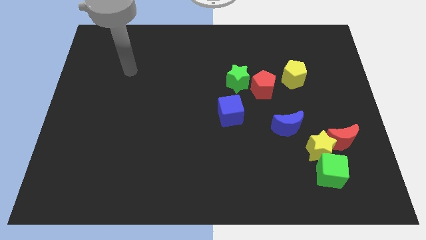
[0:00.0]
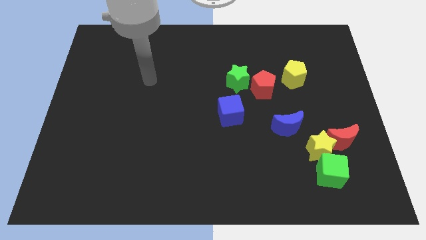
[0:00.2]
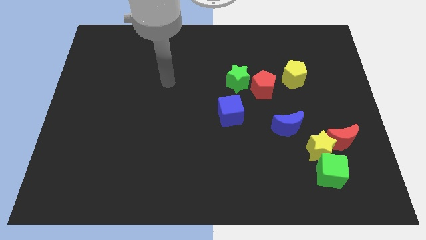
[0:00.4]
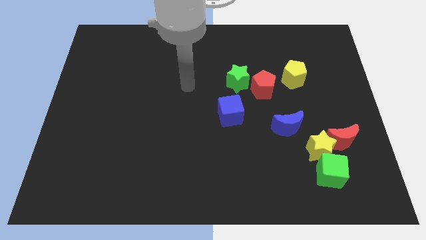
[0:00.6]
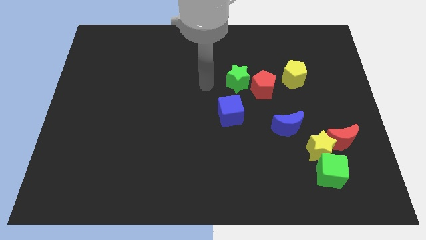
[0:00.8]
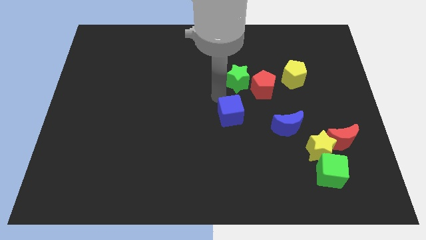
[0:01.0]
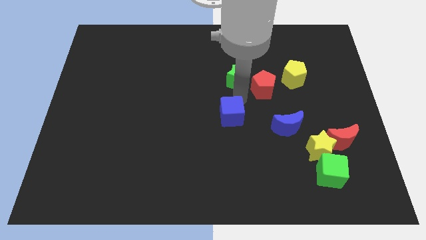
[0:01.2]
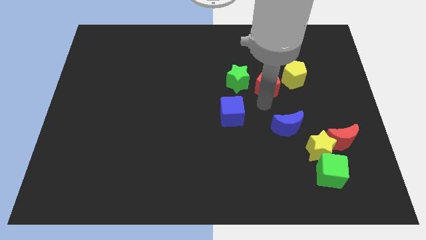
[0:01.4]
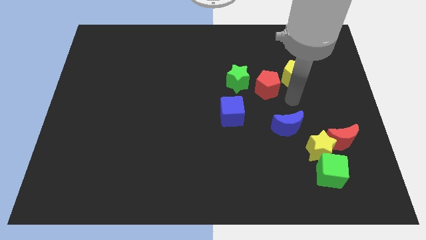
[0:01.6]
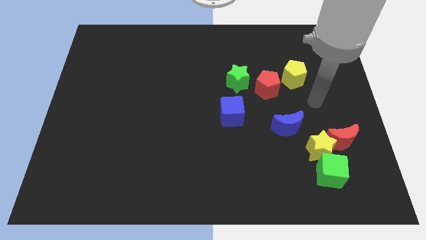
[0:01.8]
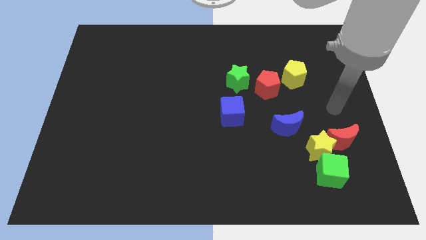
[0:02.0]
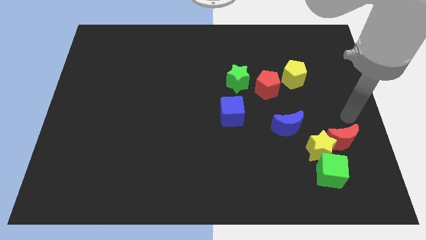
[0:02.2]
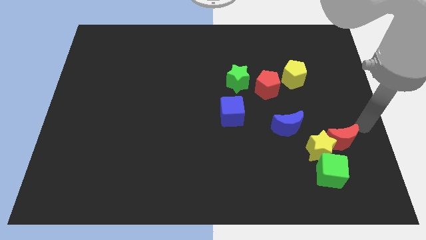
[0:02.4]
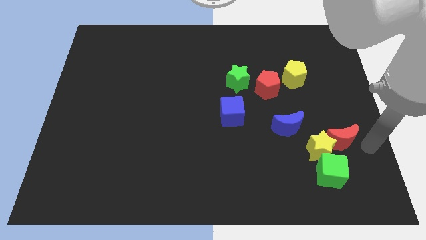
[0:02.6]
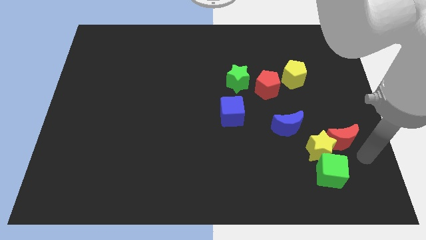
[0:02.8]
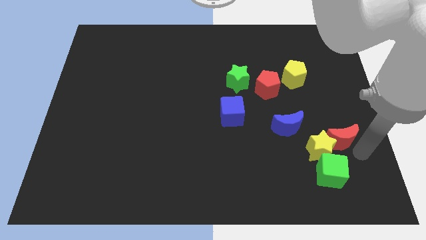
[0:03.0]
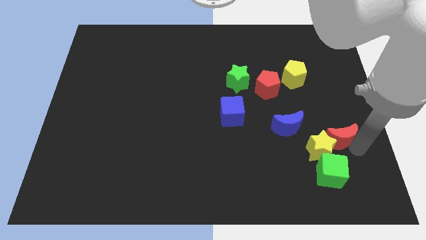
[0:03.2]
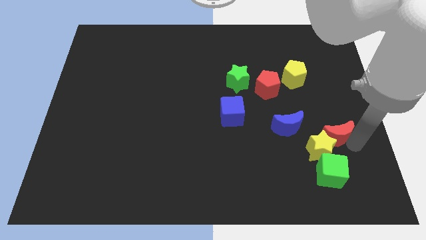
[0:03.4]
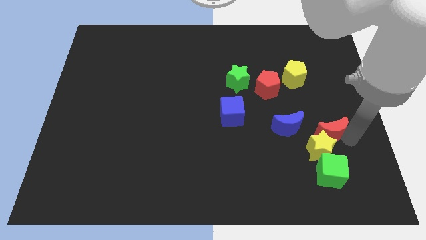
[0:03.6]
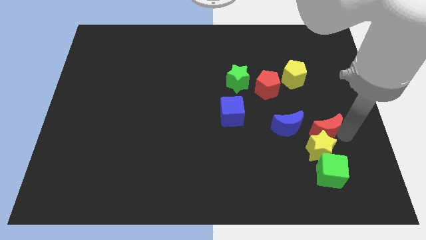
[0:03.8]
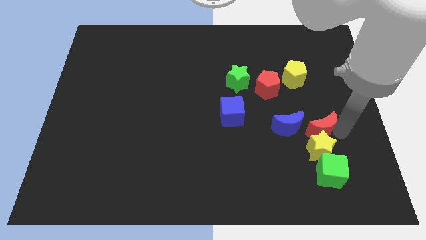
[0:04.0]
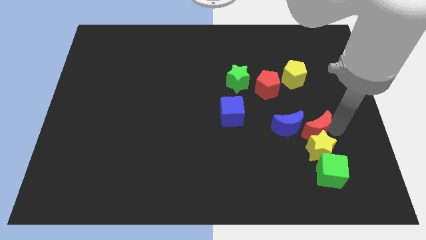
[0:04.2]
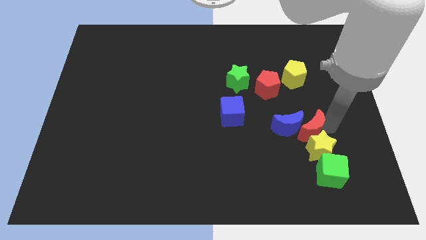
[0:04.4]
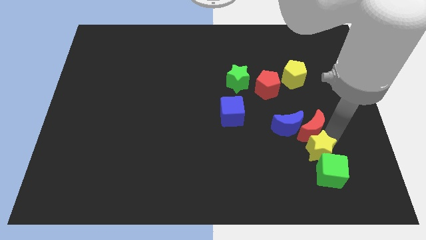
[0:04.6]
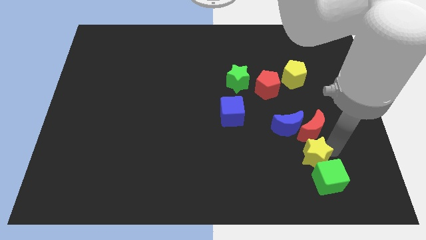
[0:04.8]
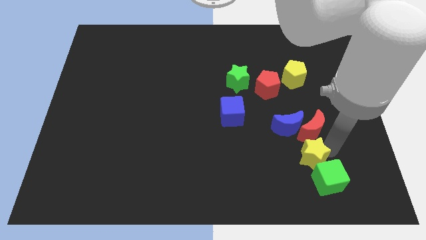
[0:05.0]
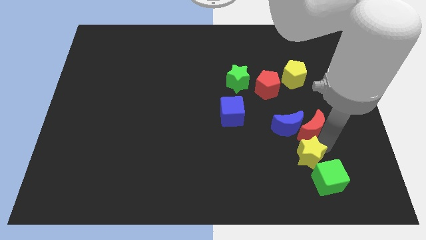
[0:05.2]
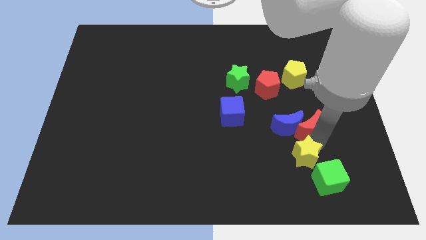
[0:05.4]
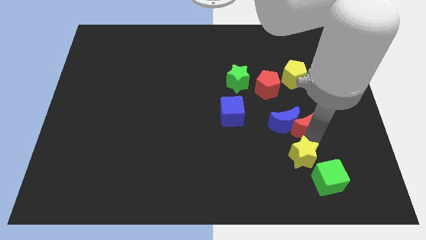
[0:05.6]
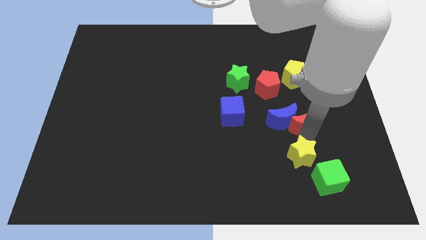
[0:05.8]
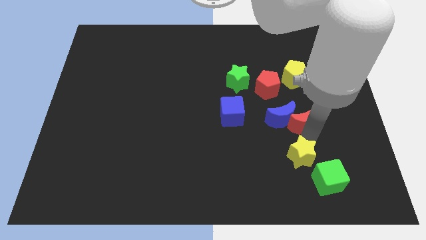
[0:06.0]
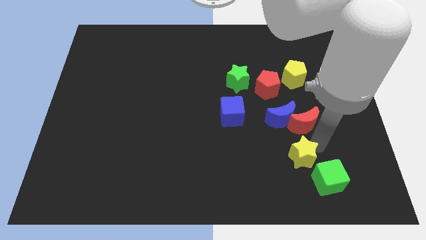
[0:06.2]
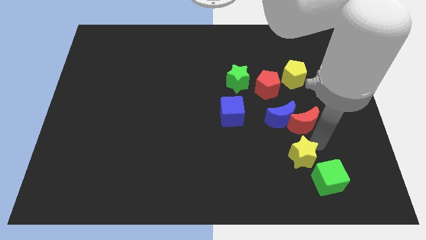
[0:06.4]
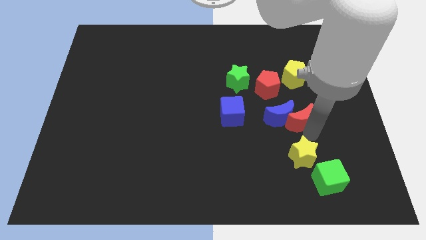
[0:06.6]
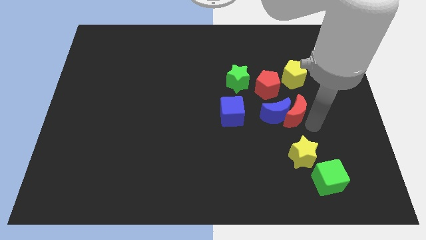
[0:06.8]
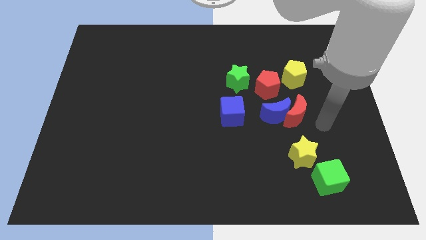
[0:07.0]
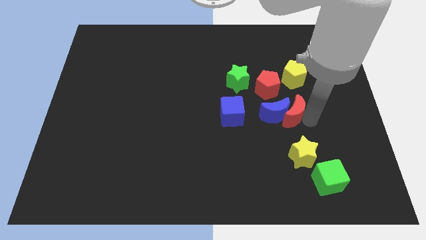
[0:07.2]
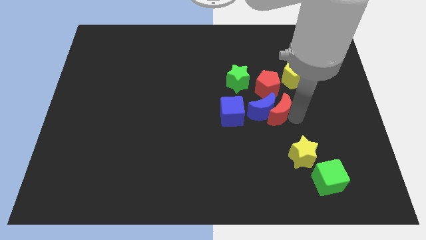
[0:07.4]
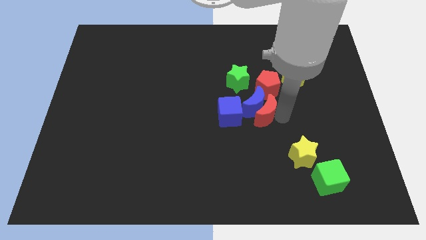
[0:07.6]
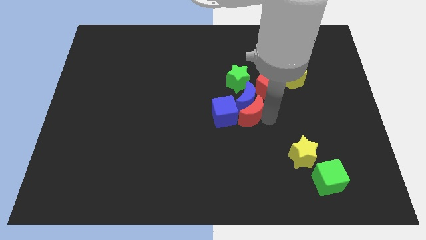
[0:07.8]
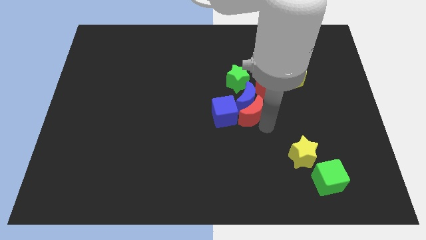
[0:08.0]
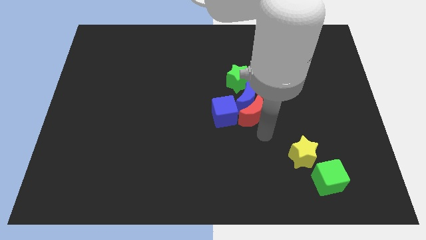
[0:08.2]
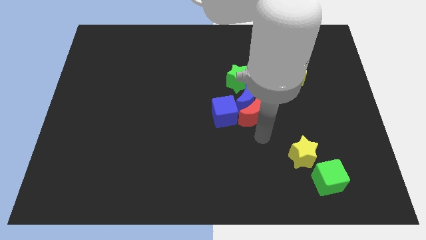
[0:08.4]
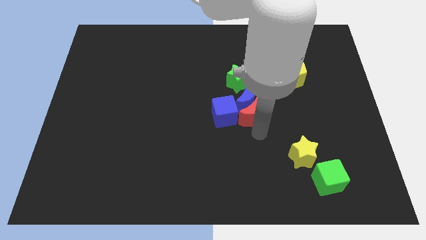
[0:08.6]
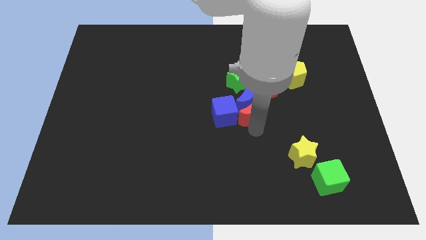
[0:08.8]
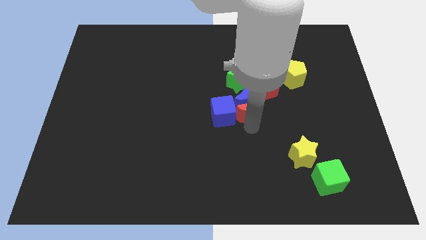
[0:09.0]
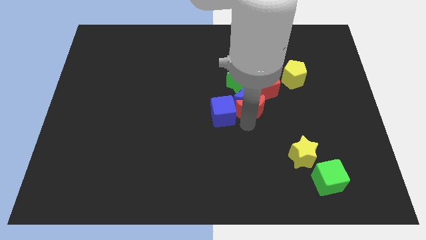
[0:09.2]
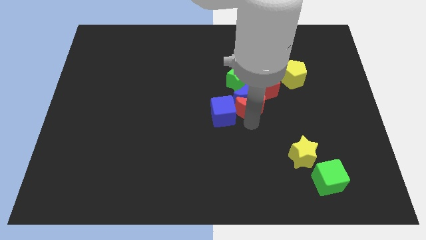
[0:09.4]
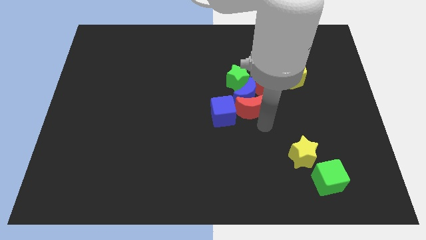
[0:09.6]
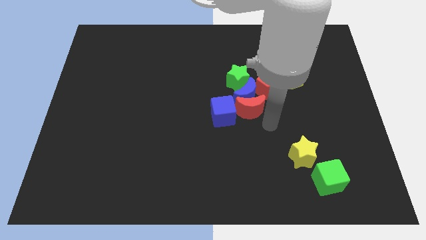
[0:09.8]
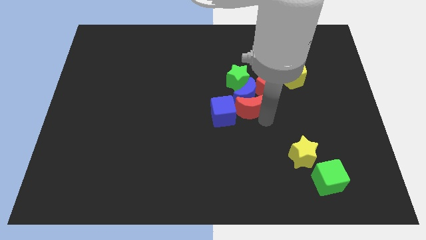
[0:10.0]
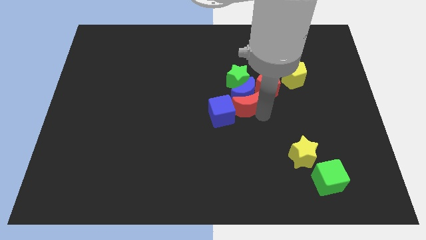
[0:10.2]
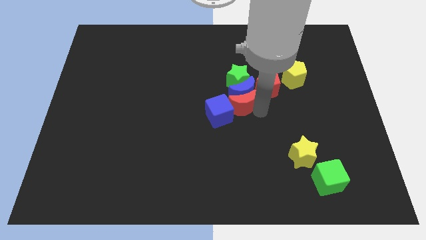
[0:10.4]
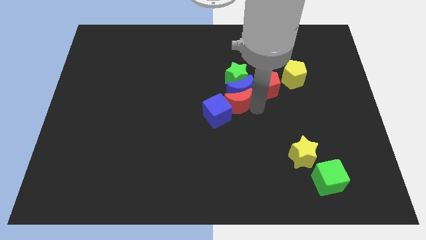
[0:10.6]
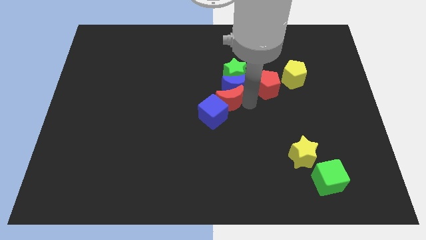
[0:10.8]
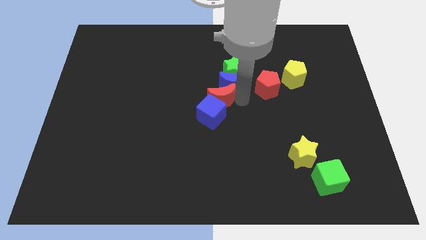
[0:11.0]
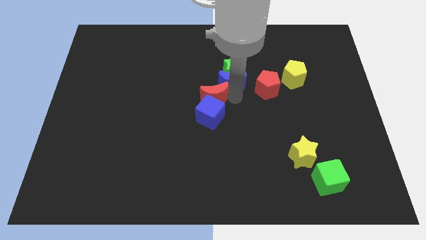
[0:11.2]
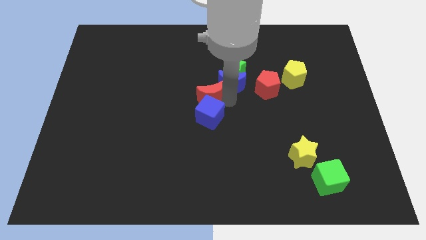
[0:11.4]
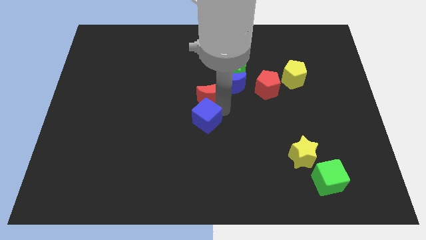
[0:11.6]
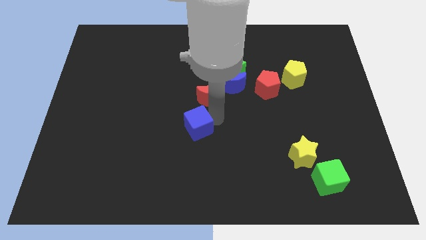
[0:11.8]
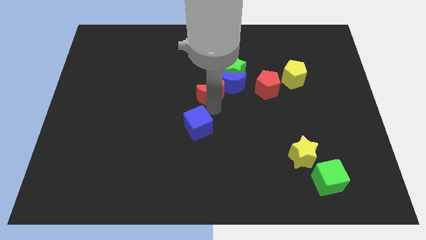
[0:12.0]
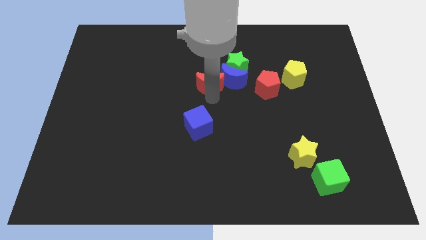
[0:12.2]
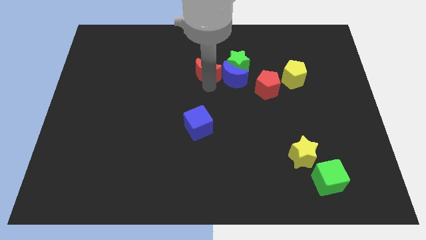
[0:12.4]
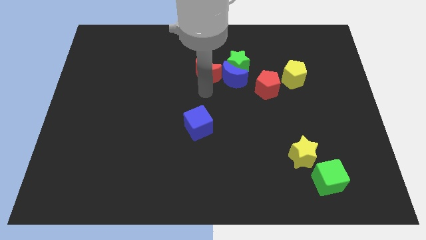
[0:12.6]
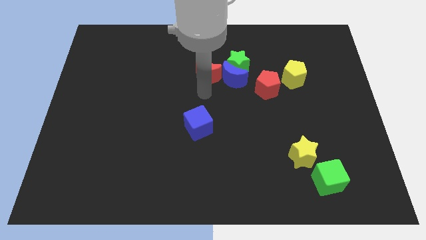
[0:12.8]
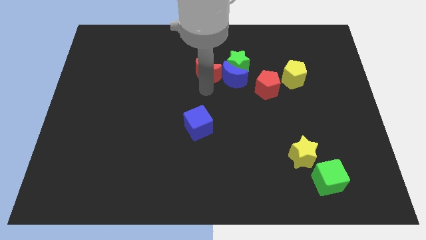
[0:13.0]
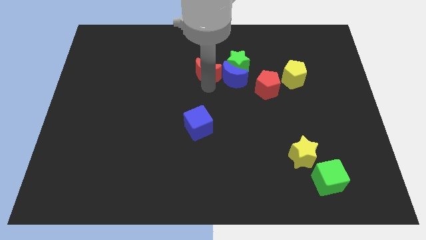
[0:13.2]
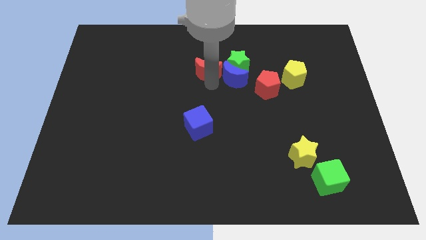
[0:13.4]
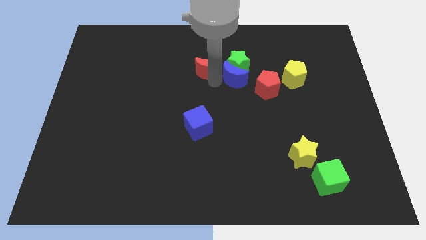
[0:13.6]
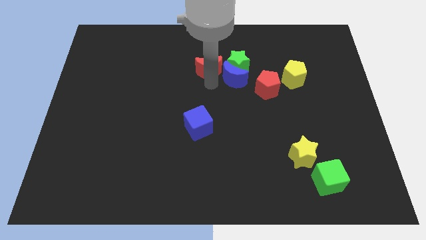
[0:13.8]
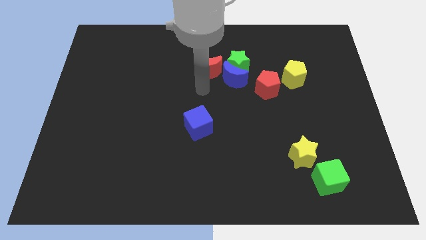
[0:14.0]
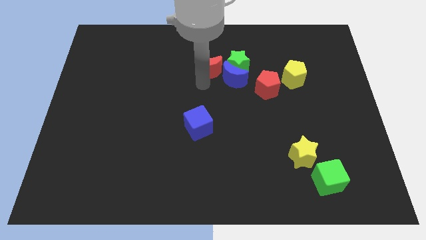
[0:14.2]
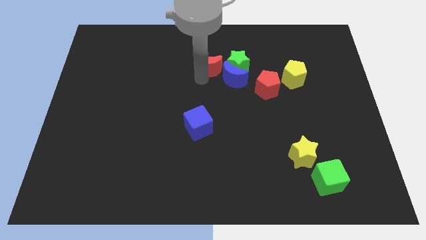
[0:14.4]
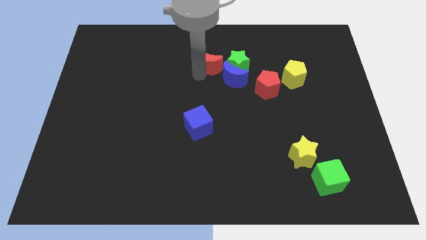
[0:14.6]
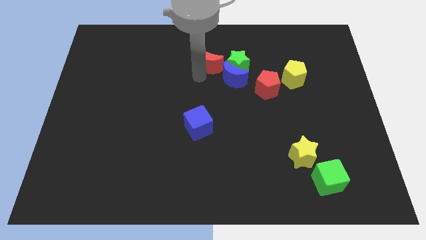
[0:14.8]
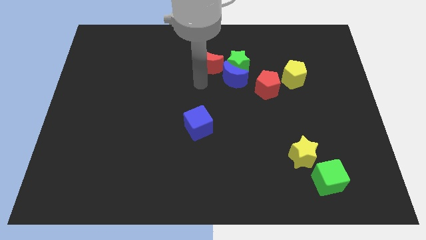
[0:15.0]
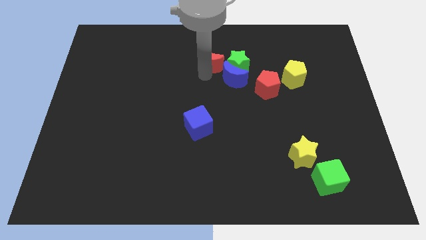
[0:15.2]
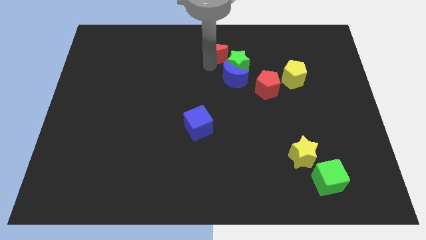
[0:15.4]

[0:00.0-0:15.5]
put the red moon to the towards your base

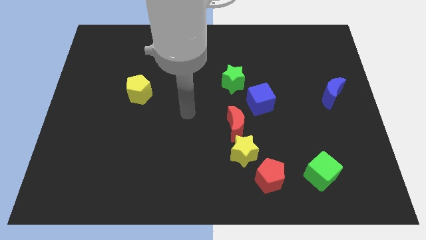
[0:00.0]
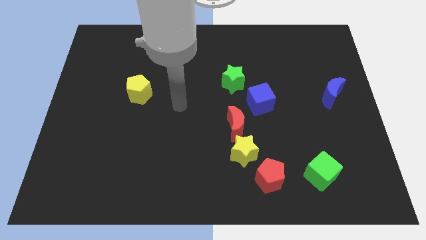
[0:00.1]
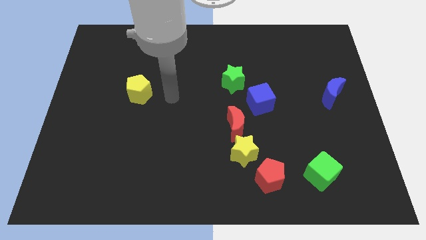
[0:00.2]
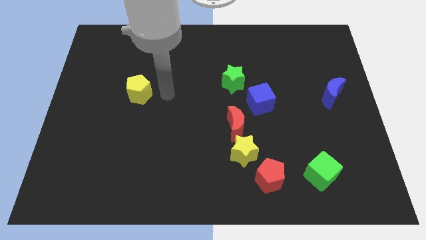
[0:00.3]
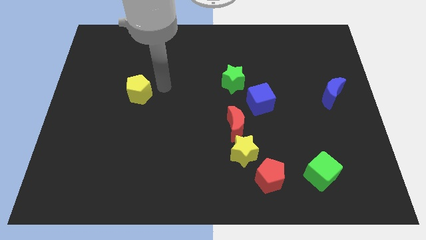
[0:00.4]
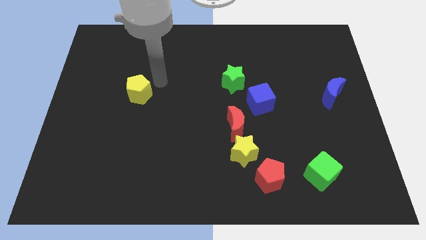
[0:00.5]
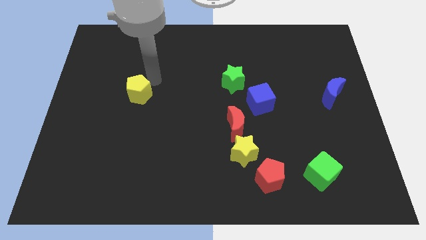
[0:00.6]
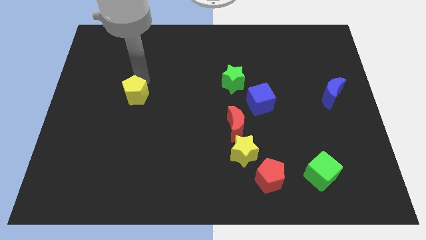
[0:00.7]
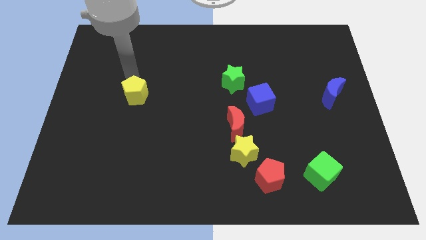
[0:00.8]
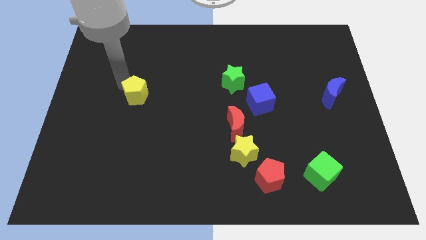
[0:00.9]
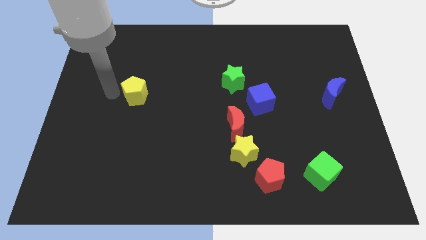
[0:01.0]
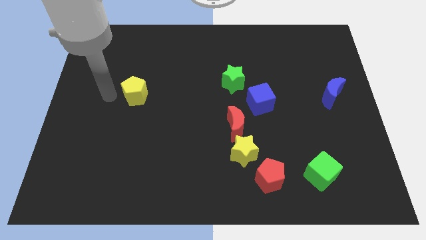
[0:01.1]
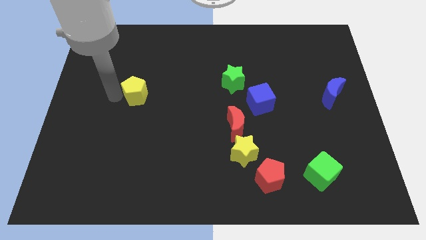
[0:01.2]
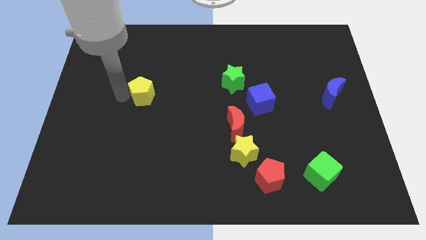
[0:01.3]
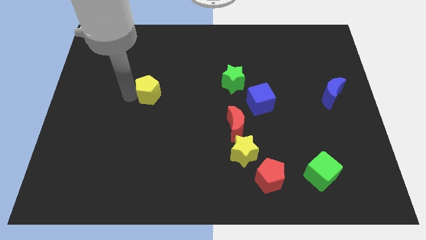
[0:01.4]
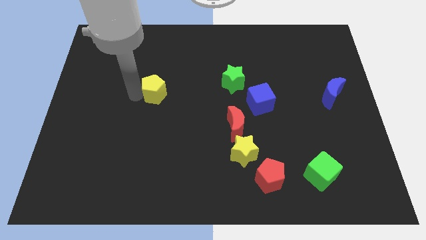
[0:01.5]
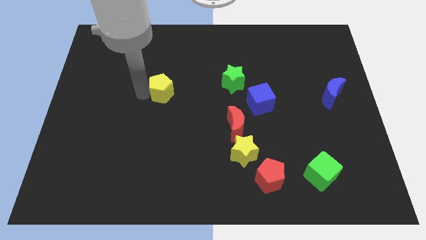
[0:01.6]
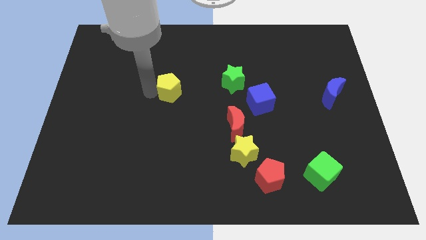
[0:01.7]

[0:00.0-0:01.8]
move the yellow pentagon to the center of the board
